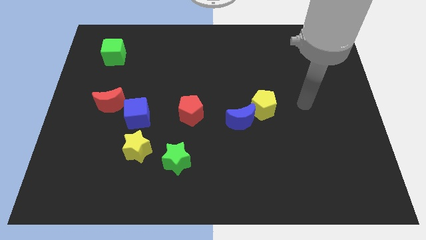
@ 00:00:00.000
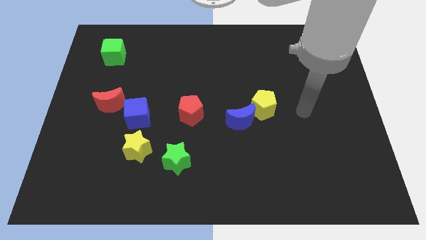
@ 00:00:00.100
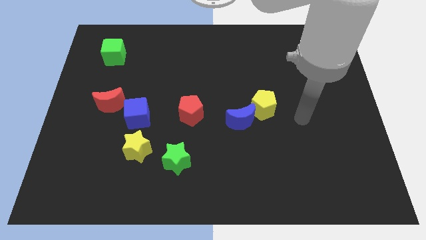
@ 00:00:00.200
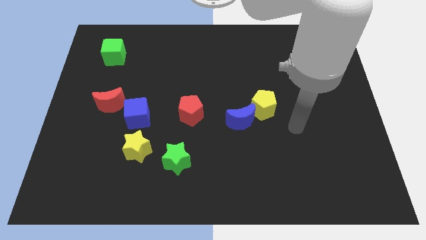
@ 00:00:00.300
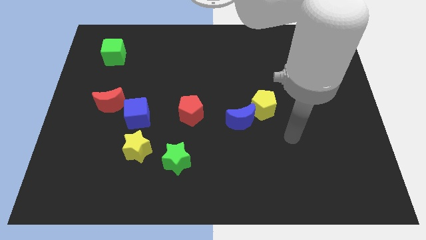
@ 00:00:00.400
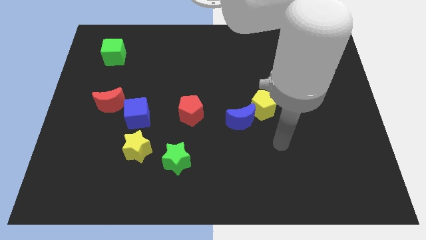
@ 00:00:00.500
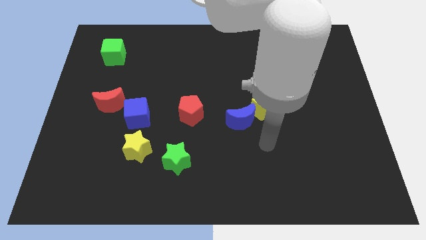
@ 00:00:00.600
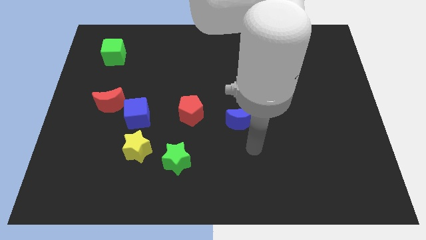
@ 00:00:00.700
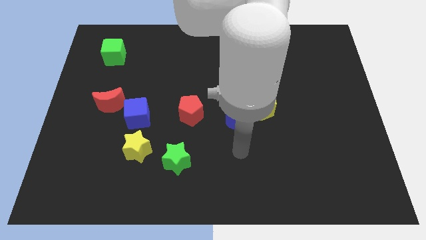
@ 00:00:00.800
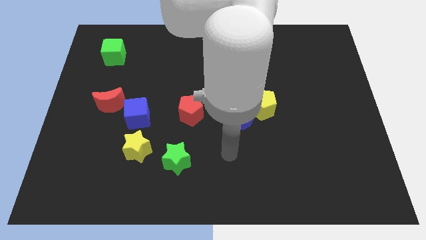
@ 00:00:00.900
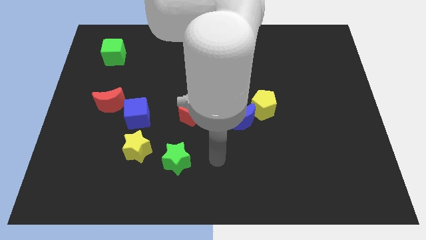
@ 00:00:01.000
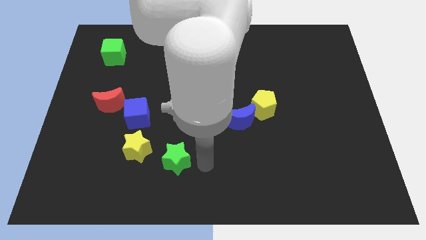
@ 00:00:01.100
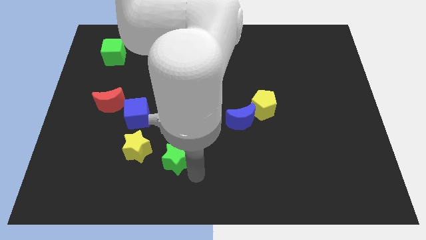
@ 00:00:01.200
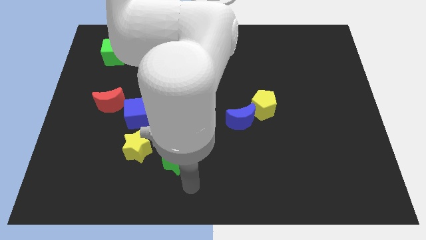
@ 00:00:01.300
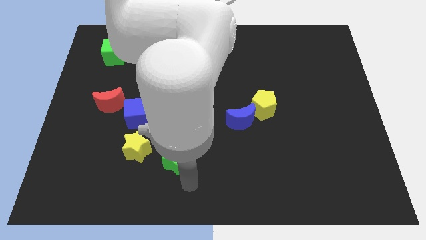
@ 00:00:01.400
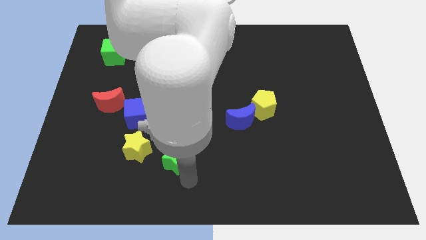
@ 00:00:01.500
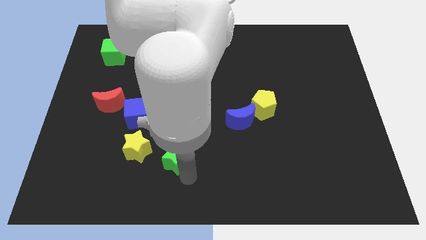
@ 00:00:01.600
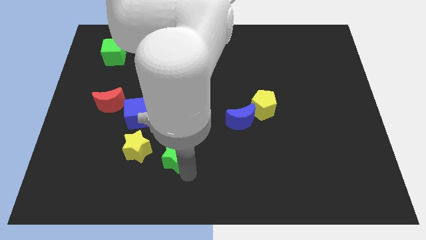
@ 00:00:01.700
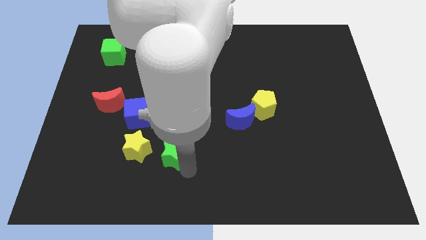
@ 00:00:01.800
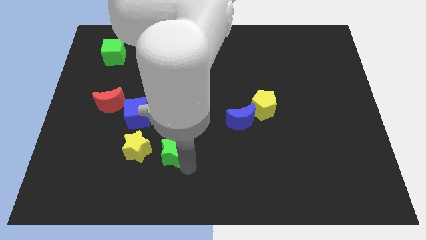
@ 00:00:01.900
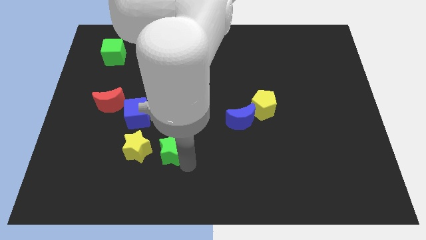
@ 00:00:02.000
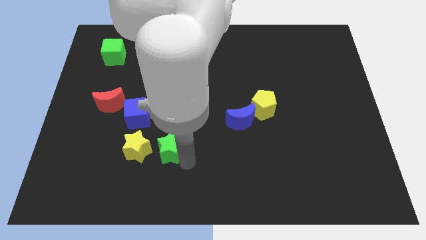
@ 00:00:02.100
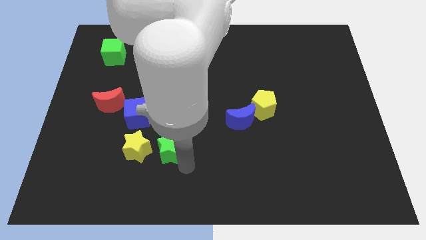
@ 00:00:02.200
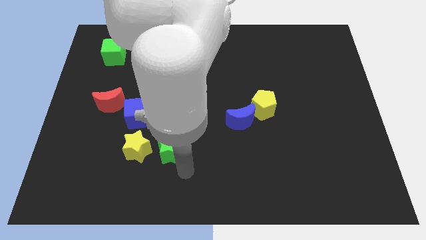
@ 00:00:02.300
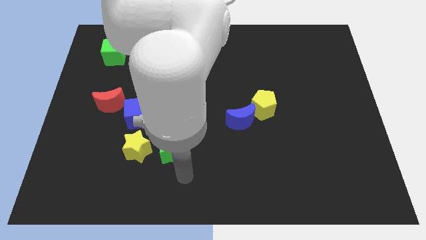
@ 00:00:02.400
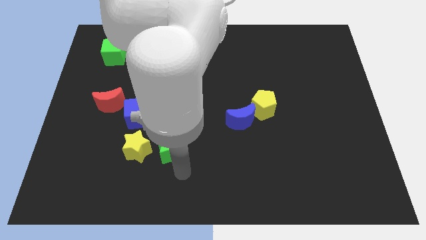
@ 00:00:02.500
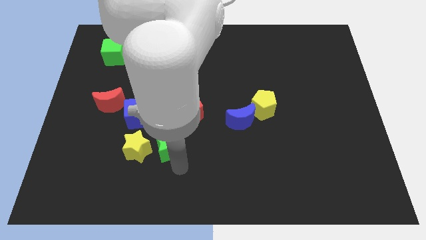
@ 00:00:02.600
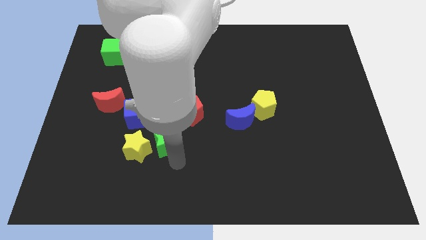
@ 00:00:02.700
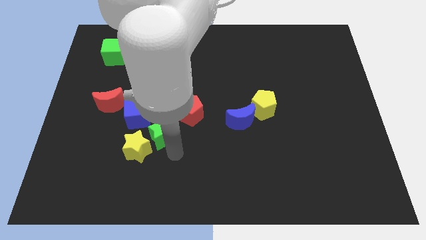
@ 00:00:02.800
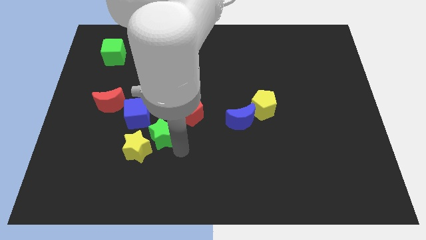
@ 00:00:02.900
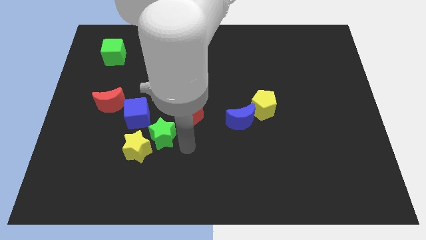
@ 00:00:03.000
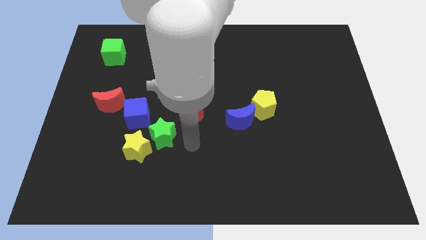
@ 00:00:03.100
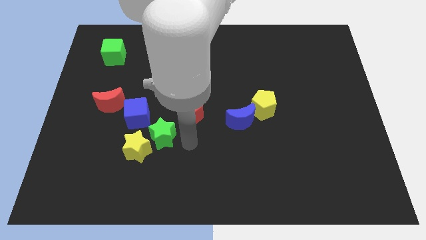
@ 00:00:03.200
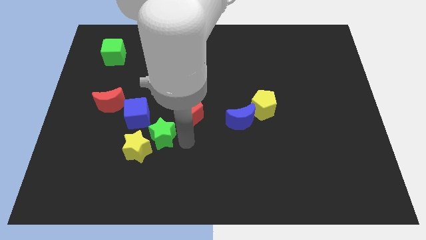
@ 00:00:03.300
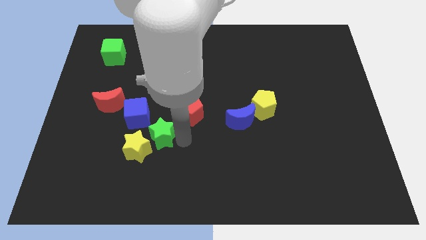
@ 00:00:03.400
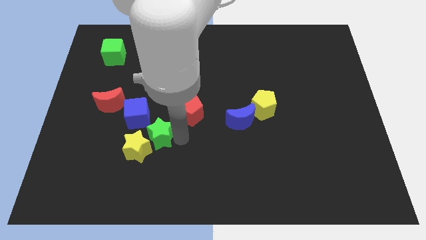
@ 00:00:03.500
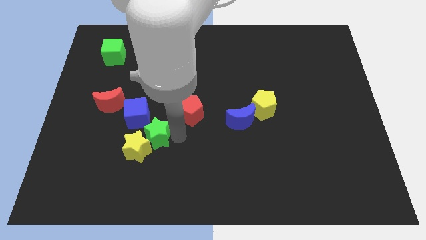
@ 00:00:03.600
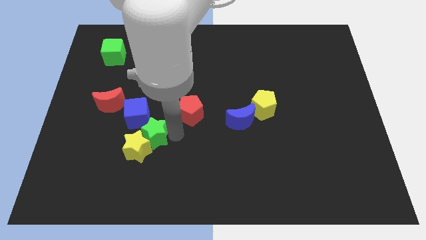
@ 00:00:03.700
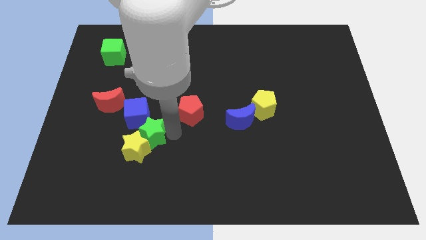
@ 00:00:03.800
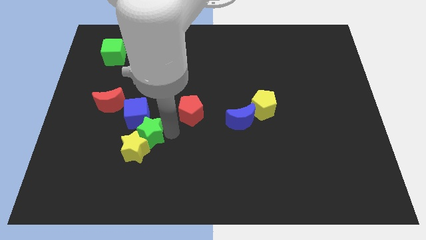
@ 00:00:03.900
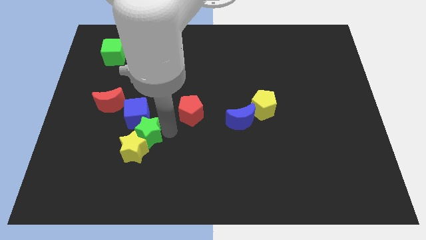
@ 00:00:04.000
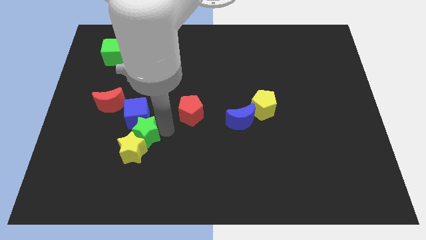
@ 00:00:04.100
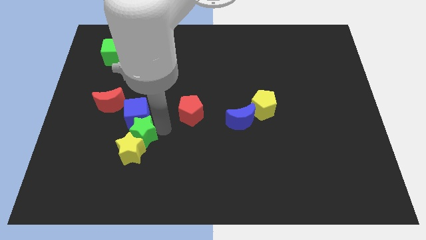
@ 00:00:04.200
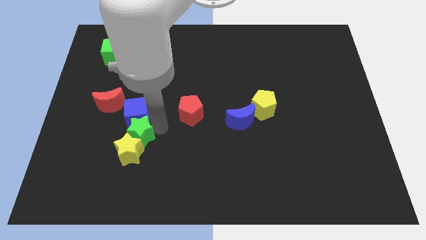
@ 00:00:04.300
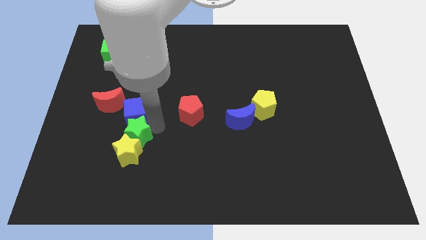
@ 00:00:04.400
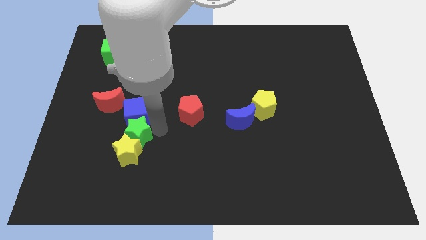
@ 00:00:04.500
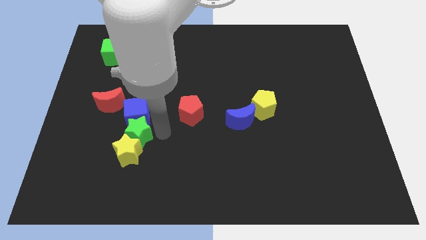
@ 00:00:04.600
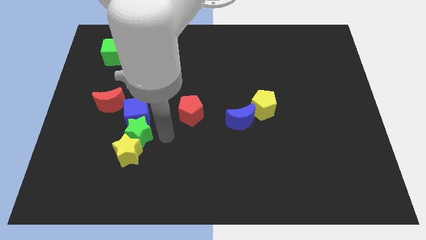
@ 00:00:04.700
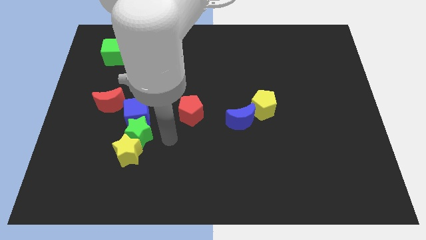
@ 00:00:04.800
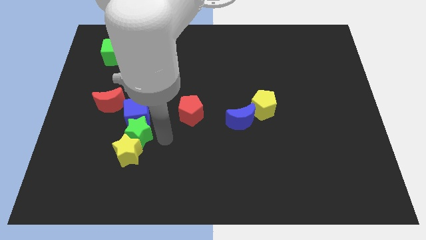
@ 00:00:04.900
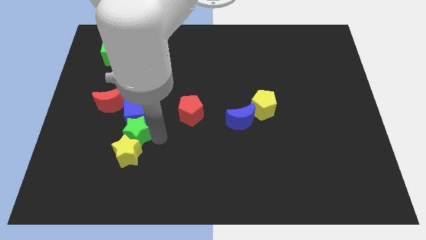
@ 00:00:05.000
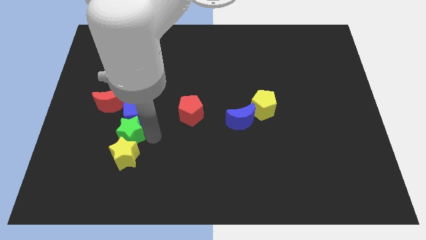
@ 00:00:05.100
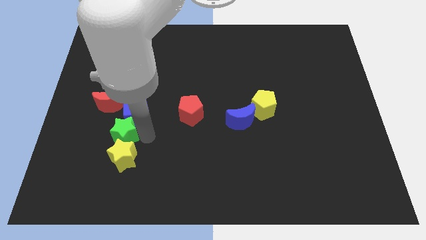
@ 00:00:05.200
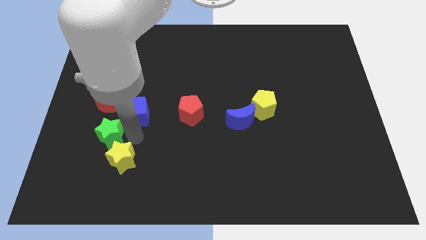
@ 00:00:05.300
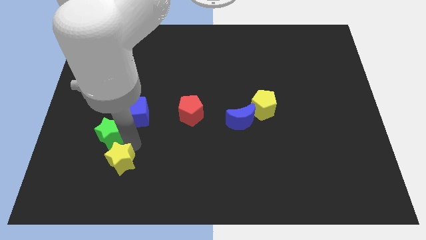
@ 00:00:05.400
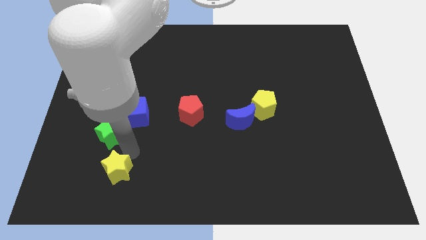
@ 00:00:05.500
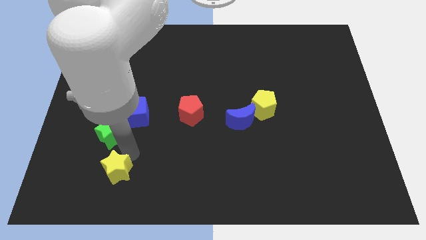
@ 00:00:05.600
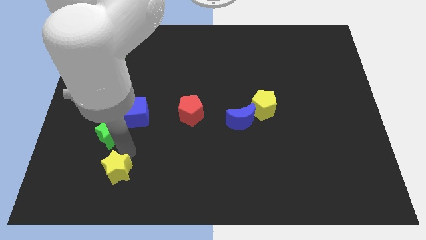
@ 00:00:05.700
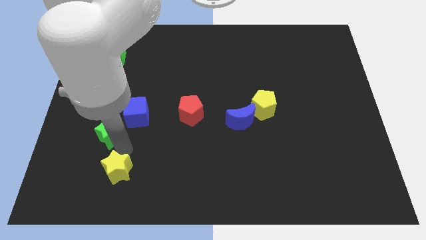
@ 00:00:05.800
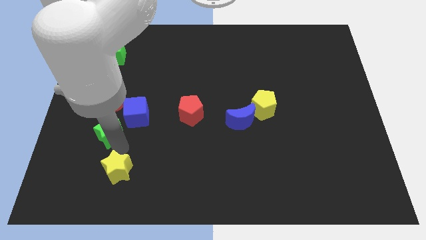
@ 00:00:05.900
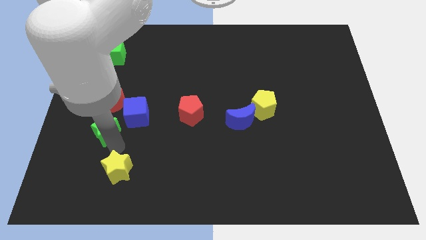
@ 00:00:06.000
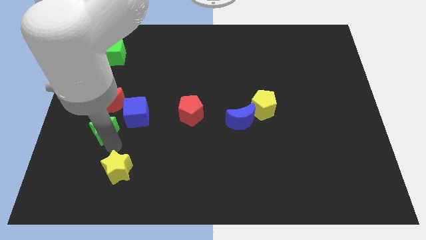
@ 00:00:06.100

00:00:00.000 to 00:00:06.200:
move the green star to the left of the blue cube

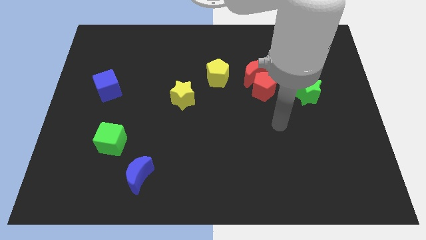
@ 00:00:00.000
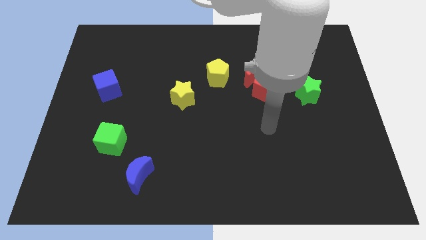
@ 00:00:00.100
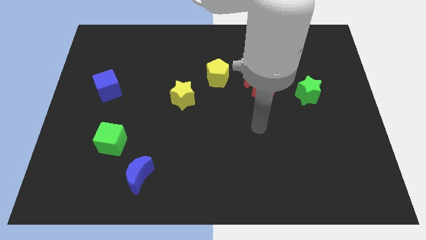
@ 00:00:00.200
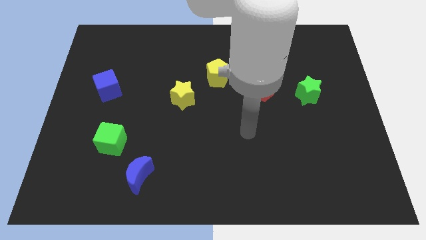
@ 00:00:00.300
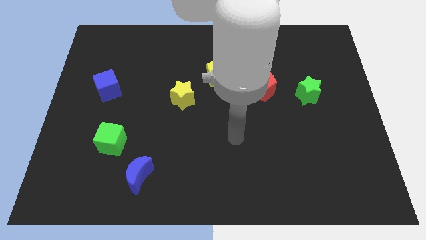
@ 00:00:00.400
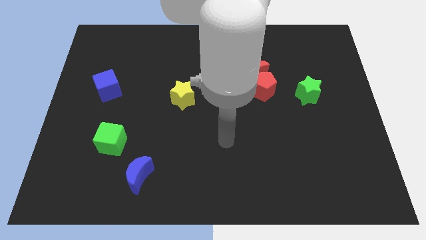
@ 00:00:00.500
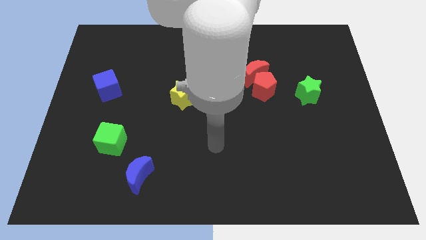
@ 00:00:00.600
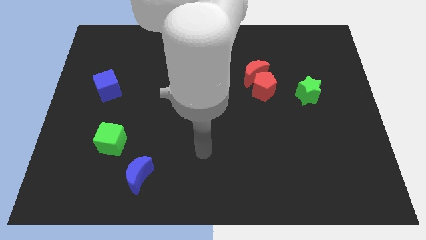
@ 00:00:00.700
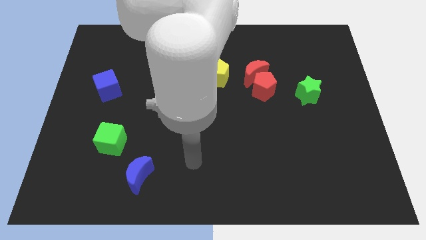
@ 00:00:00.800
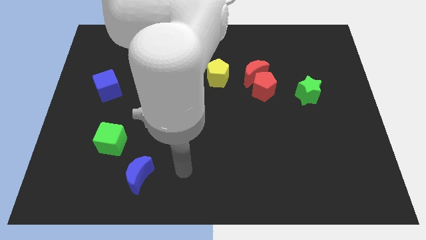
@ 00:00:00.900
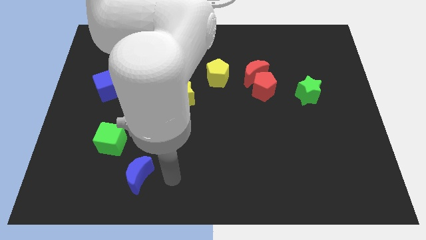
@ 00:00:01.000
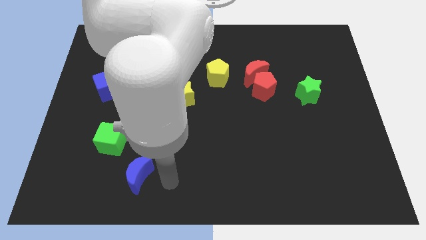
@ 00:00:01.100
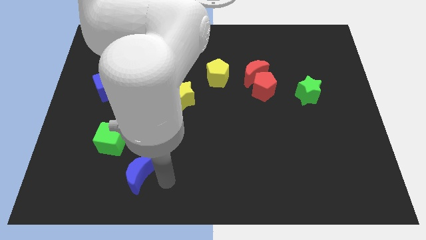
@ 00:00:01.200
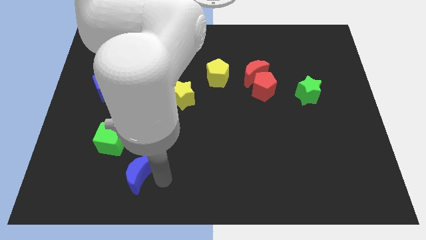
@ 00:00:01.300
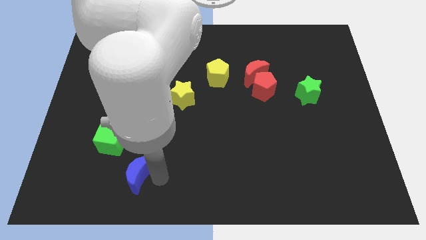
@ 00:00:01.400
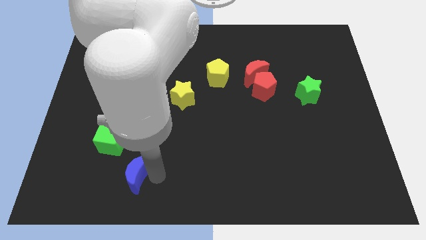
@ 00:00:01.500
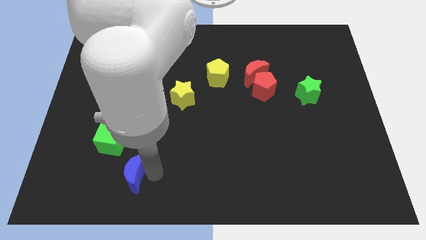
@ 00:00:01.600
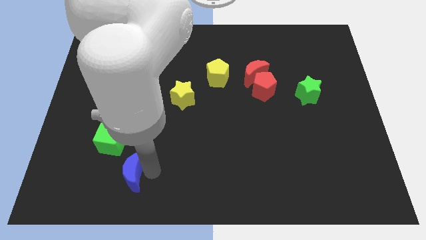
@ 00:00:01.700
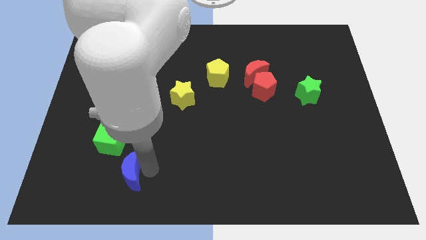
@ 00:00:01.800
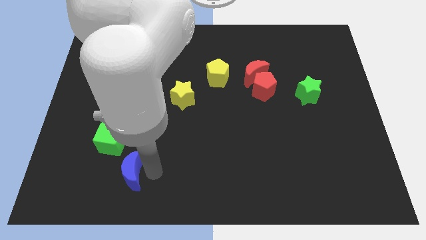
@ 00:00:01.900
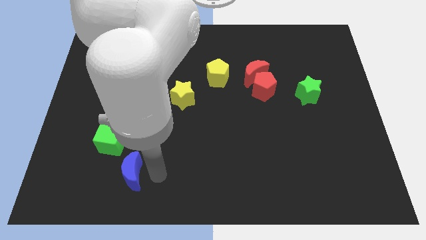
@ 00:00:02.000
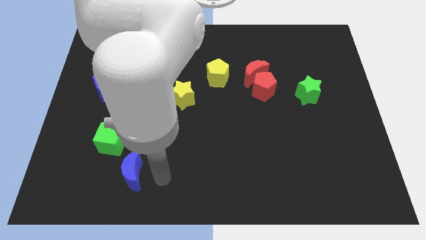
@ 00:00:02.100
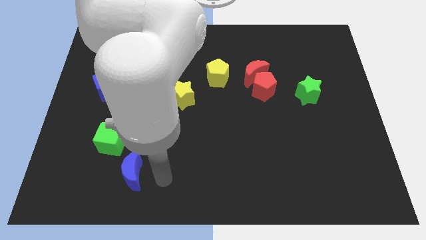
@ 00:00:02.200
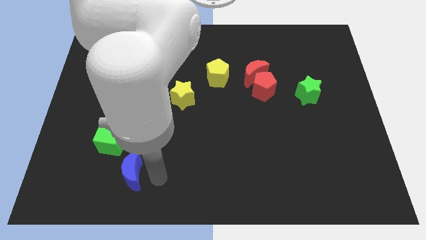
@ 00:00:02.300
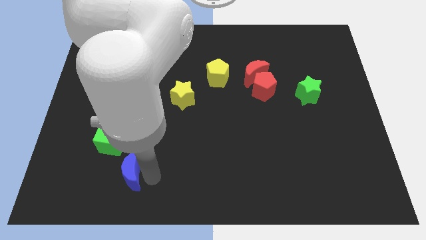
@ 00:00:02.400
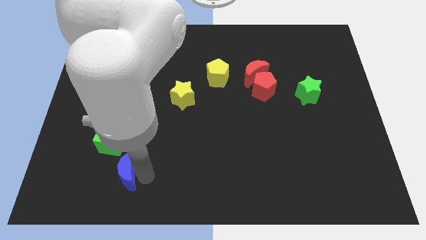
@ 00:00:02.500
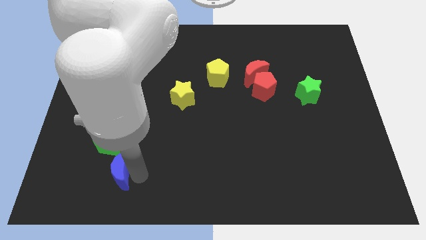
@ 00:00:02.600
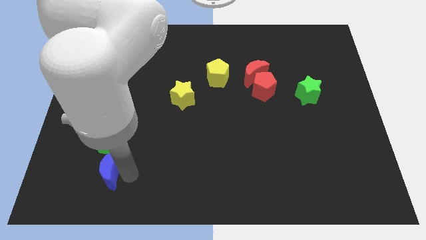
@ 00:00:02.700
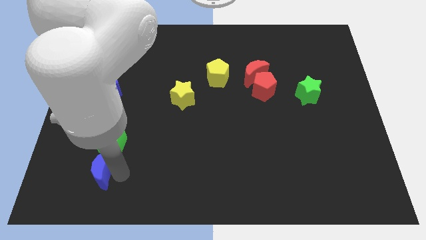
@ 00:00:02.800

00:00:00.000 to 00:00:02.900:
slide the blue moon to the bottom left side of the green cube
